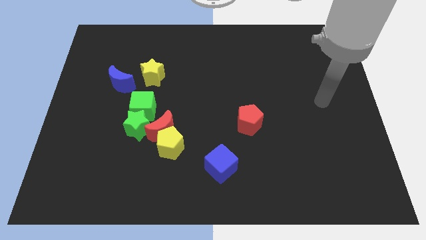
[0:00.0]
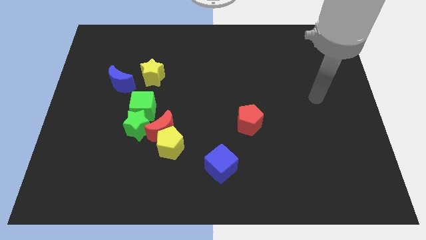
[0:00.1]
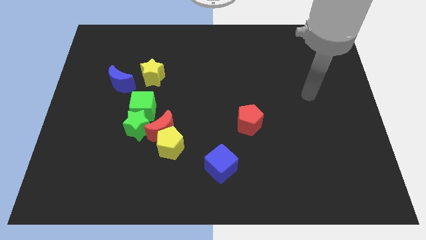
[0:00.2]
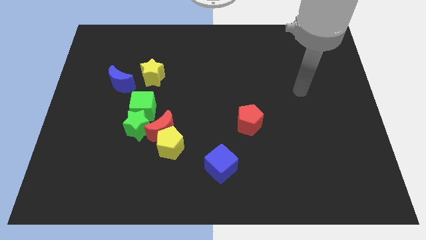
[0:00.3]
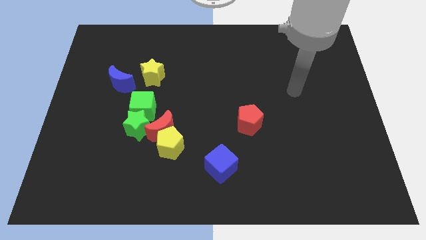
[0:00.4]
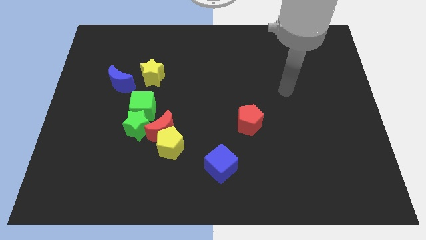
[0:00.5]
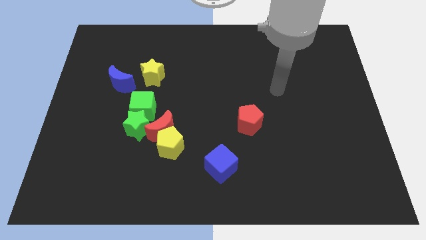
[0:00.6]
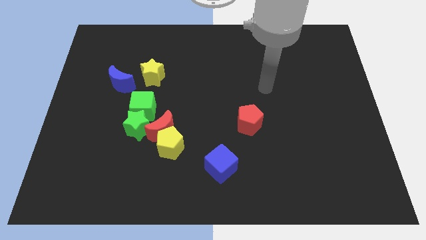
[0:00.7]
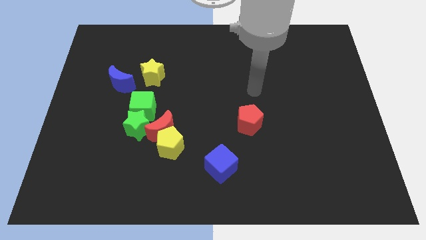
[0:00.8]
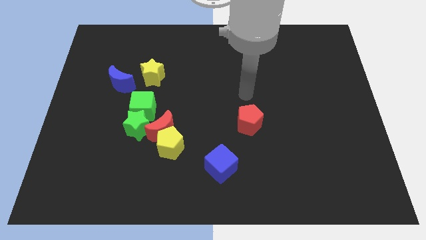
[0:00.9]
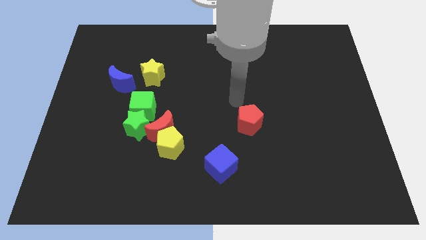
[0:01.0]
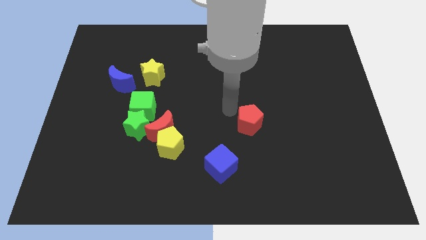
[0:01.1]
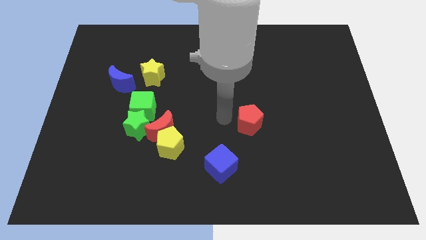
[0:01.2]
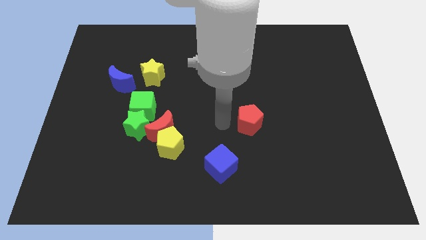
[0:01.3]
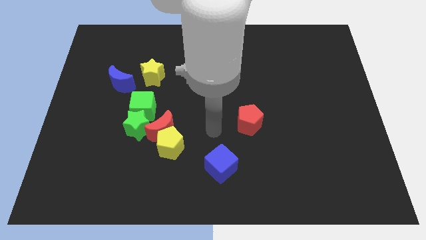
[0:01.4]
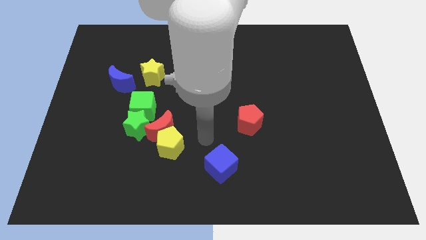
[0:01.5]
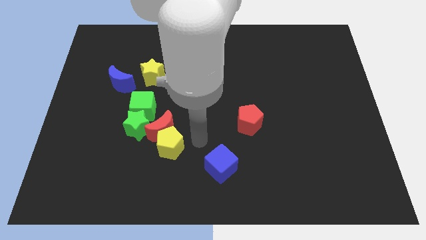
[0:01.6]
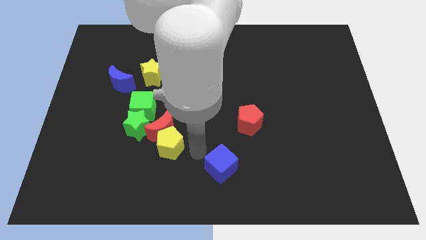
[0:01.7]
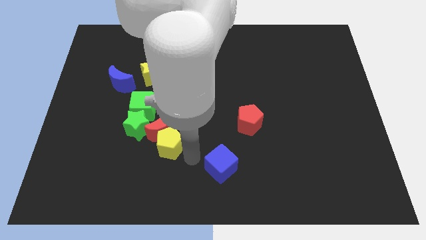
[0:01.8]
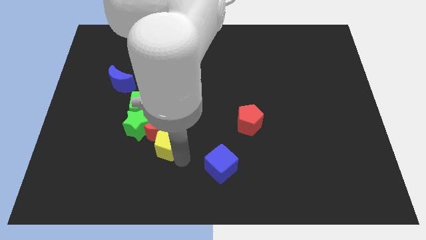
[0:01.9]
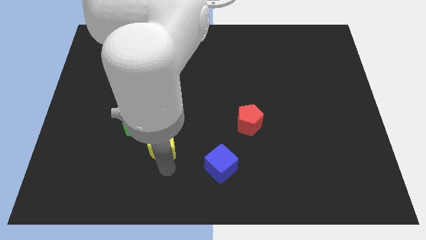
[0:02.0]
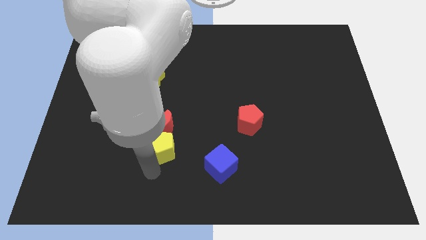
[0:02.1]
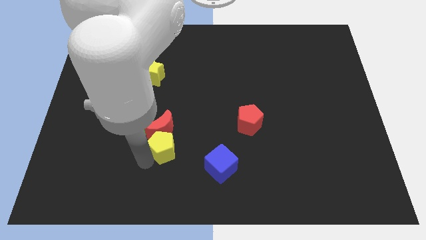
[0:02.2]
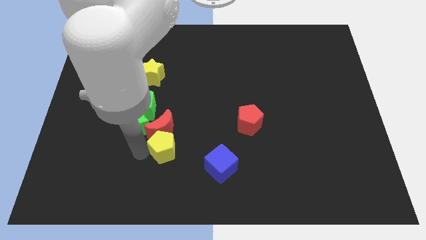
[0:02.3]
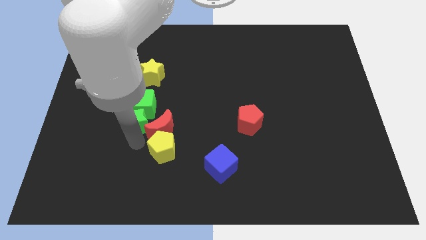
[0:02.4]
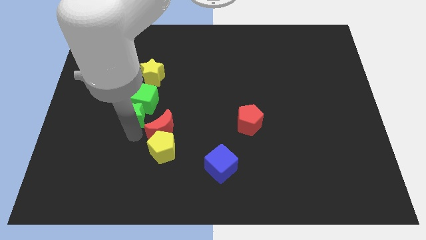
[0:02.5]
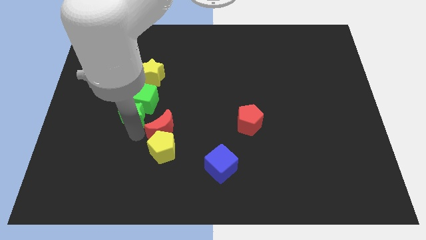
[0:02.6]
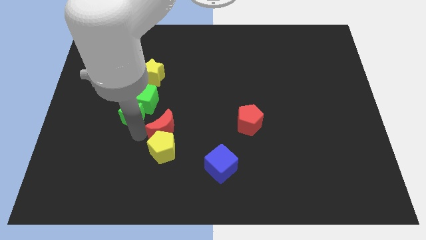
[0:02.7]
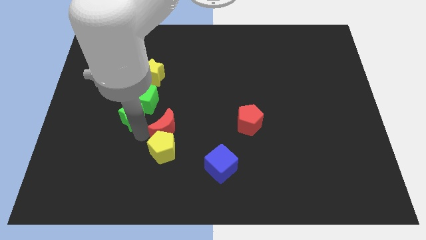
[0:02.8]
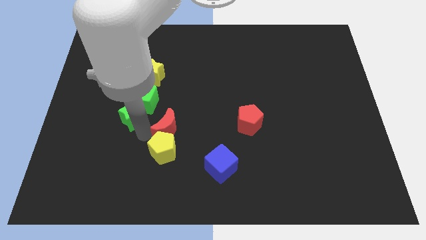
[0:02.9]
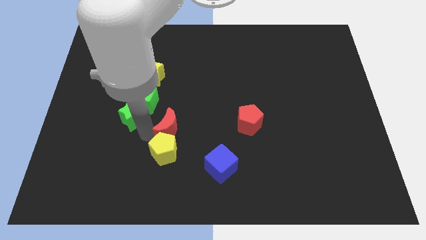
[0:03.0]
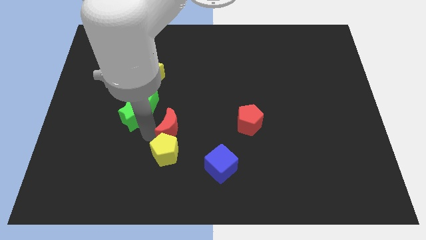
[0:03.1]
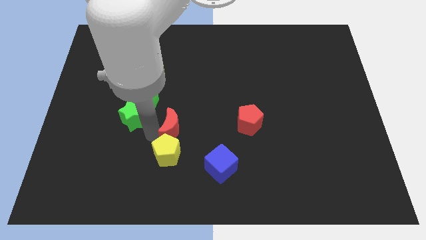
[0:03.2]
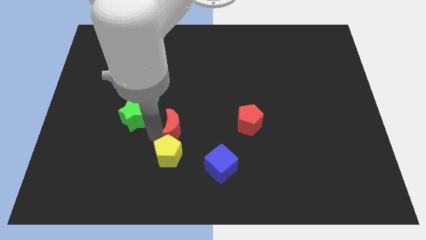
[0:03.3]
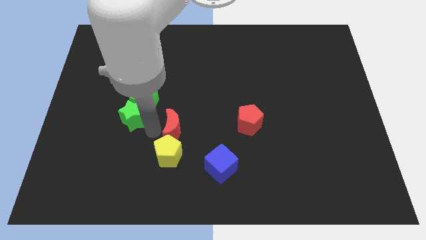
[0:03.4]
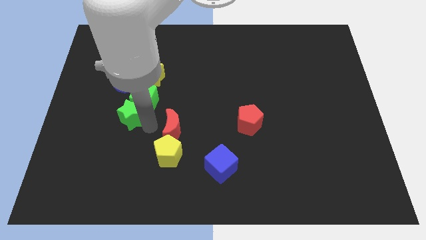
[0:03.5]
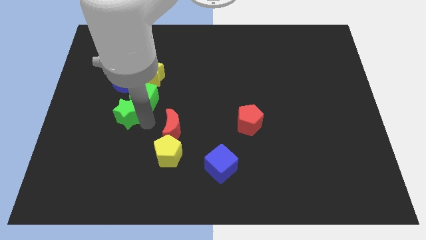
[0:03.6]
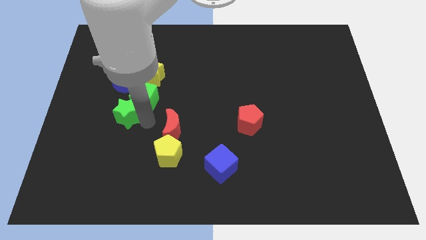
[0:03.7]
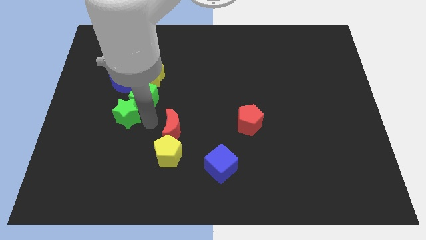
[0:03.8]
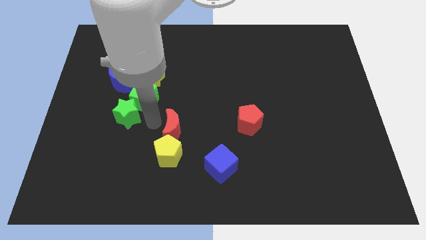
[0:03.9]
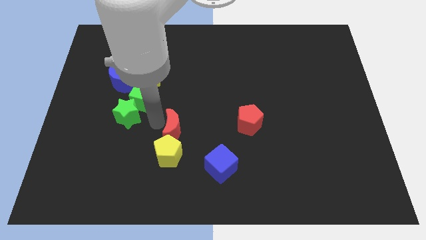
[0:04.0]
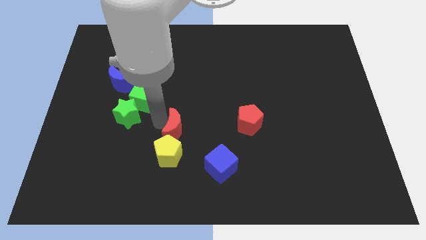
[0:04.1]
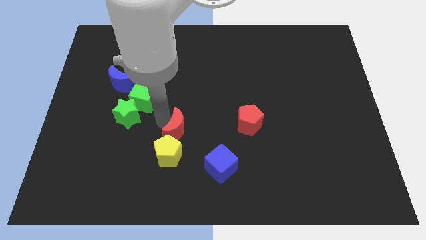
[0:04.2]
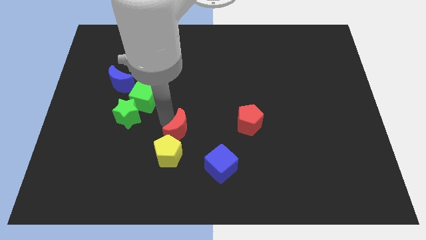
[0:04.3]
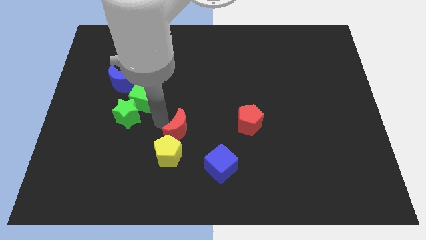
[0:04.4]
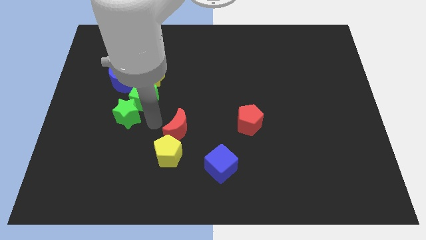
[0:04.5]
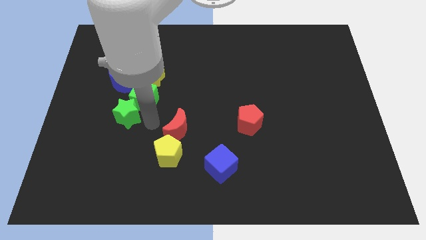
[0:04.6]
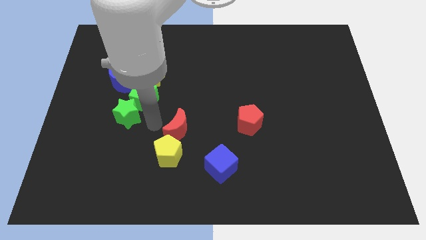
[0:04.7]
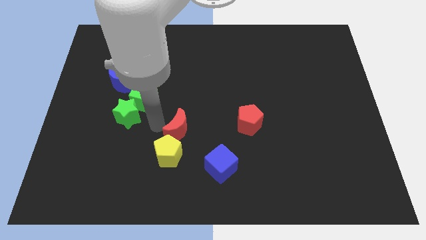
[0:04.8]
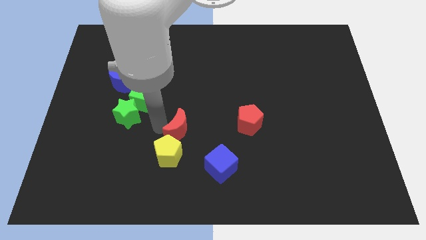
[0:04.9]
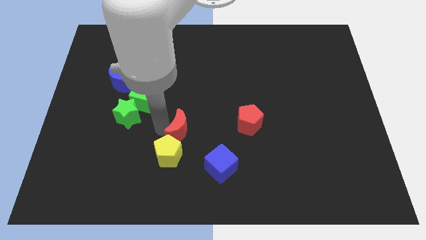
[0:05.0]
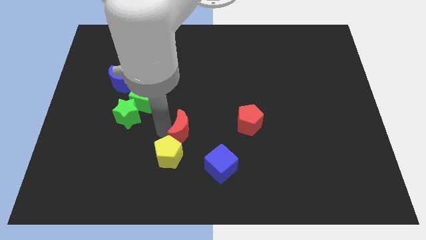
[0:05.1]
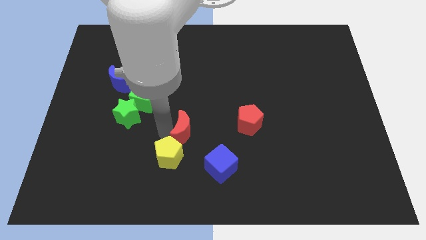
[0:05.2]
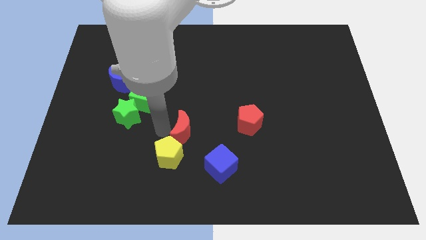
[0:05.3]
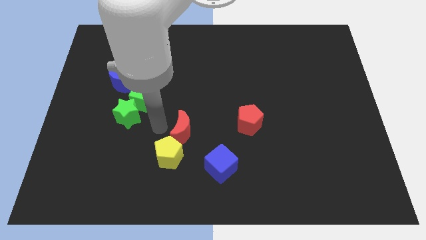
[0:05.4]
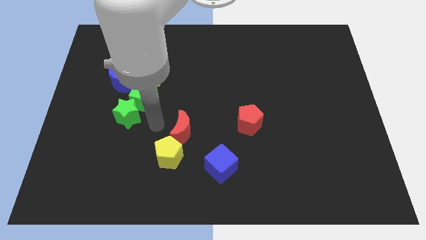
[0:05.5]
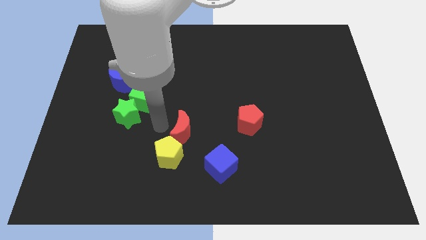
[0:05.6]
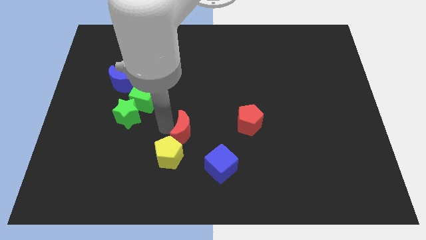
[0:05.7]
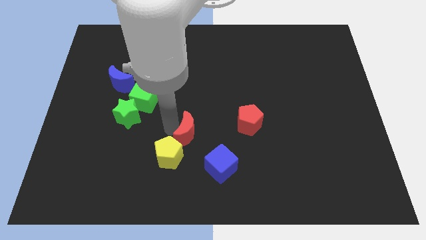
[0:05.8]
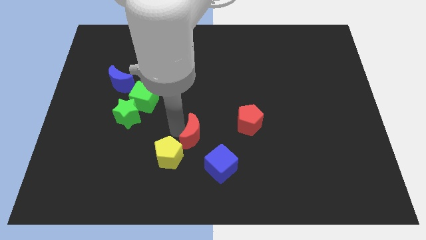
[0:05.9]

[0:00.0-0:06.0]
move the red moon away from the group

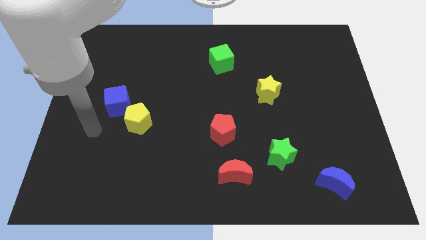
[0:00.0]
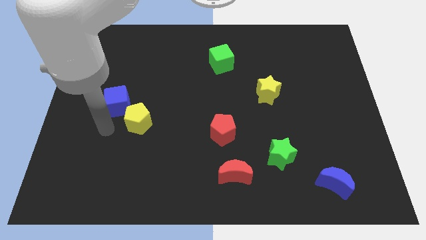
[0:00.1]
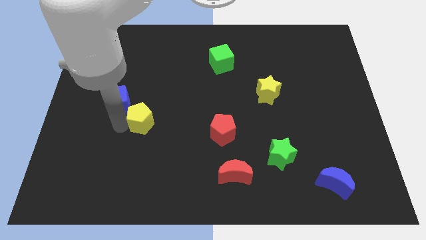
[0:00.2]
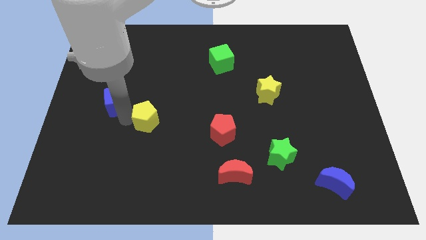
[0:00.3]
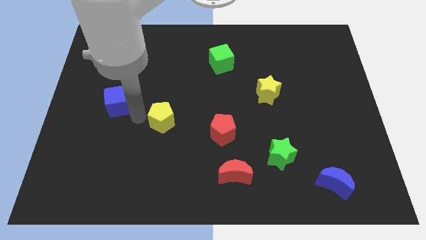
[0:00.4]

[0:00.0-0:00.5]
move the blue cube away from the yellow pentagon

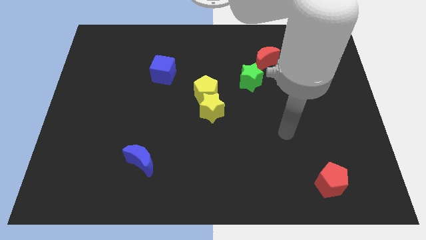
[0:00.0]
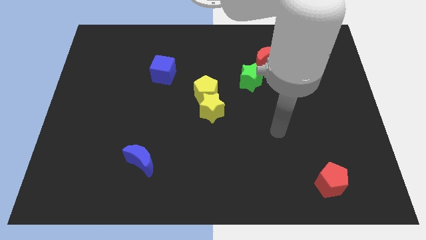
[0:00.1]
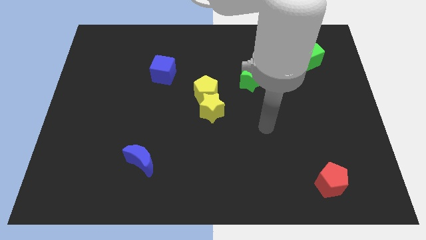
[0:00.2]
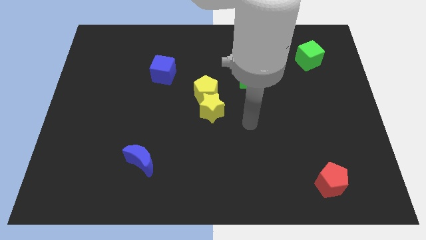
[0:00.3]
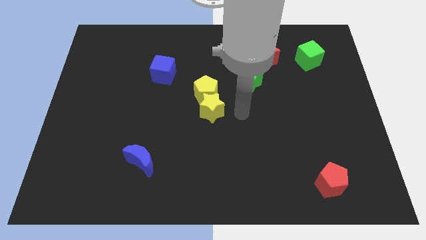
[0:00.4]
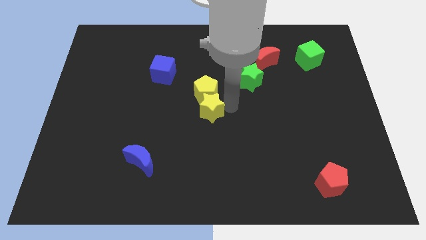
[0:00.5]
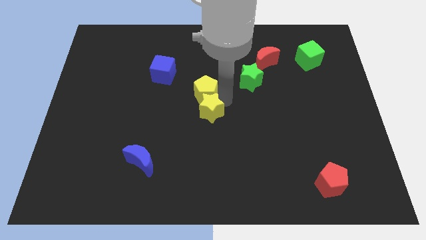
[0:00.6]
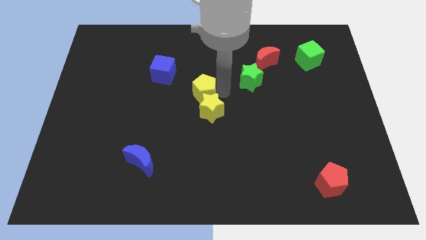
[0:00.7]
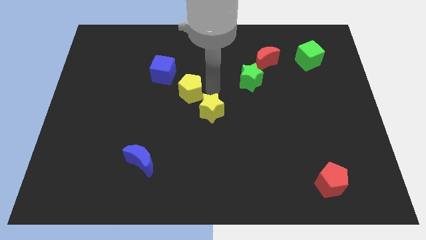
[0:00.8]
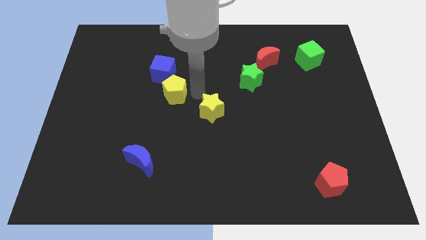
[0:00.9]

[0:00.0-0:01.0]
move the yellow star away from the yellow pentagon

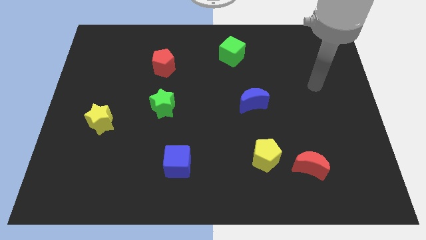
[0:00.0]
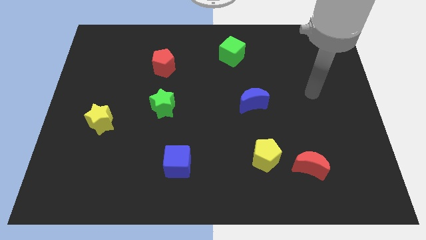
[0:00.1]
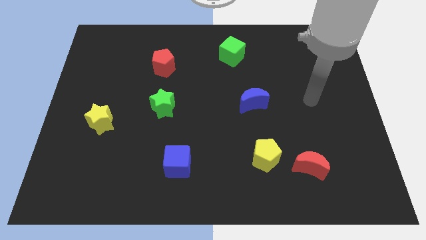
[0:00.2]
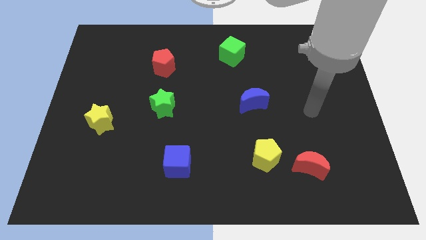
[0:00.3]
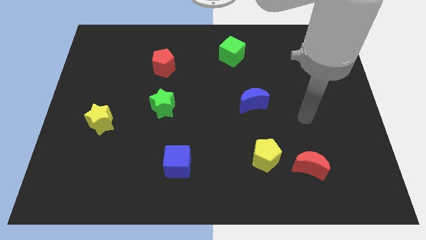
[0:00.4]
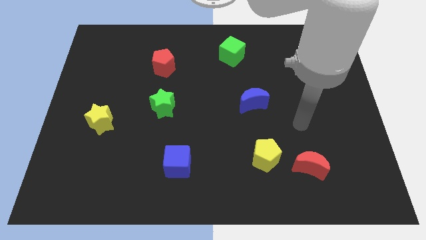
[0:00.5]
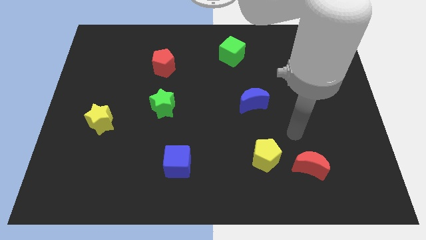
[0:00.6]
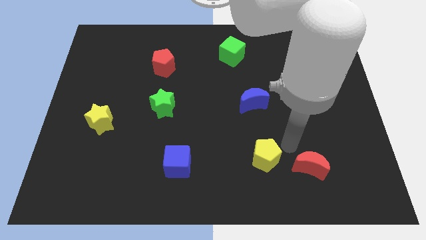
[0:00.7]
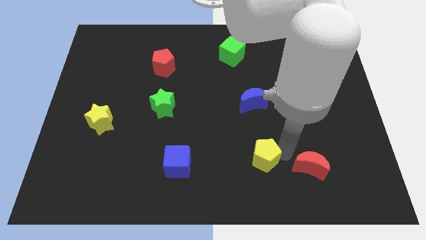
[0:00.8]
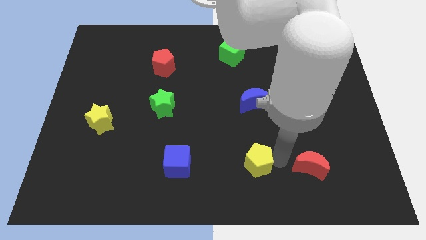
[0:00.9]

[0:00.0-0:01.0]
separate the red moon from the yellow pentagon

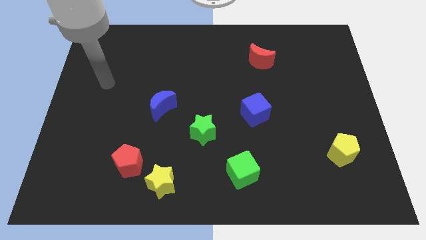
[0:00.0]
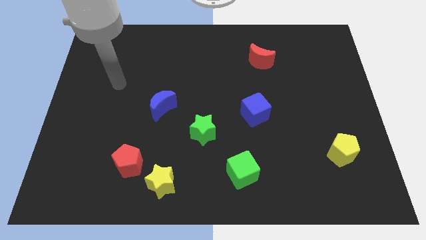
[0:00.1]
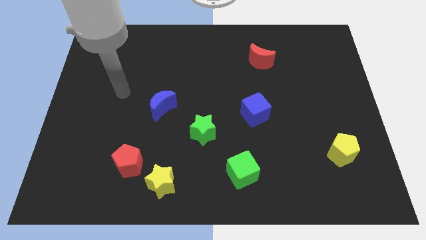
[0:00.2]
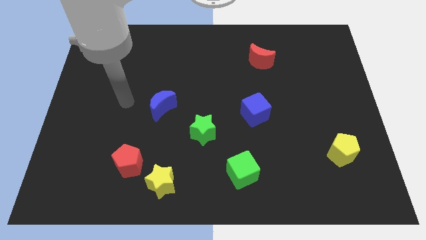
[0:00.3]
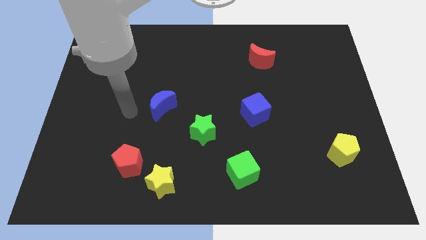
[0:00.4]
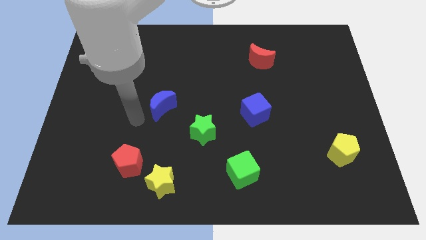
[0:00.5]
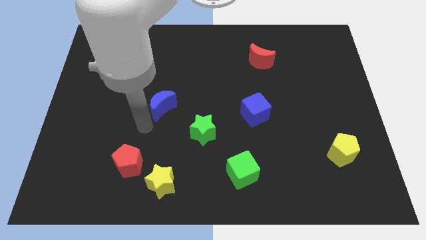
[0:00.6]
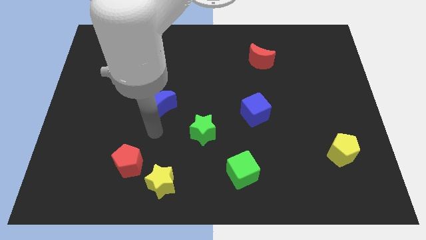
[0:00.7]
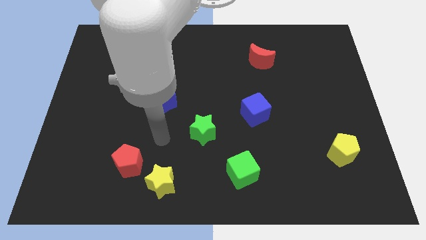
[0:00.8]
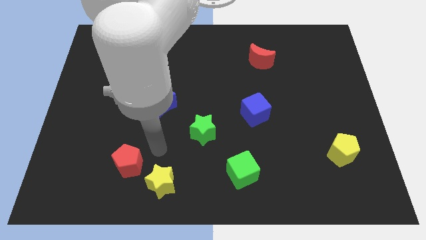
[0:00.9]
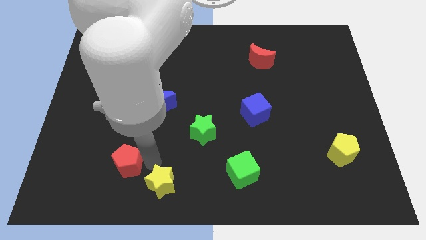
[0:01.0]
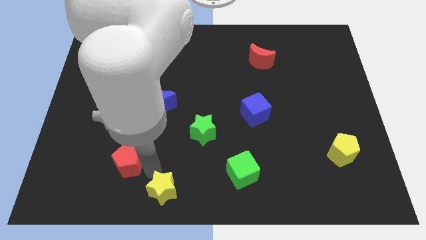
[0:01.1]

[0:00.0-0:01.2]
pull the red pentagon apart from the yellow star
